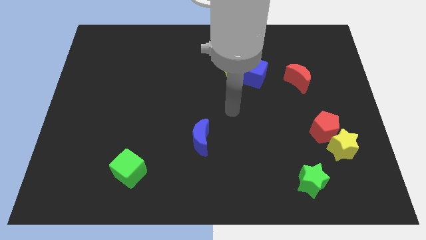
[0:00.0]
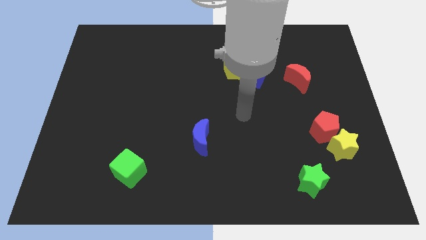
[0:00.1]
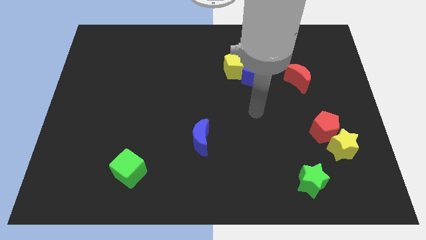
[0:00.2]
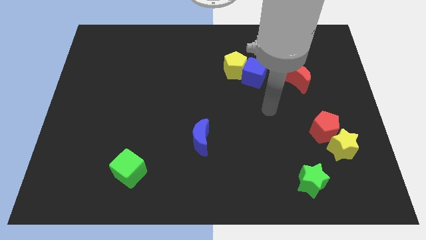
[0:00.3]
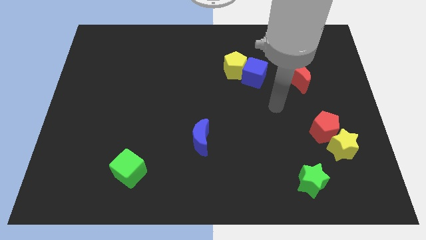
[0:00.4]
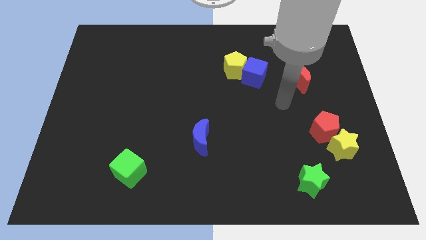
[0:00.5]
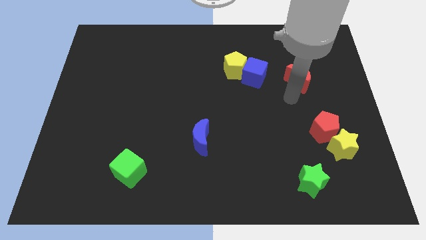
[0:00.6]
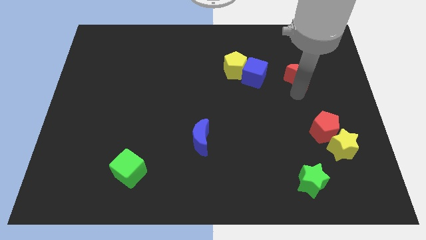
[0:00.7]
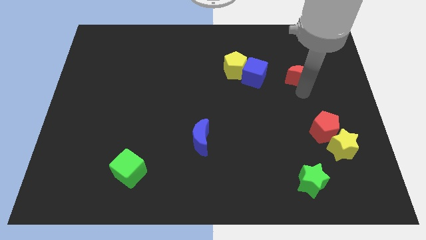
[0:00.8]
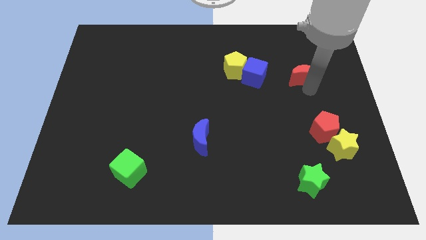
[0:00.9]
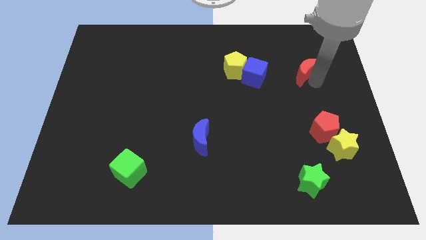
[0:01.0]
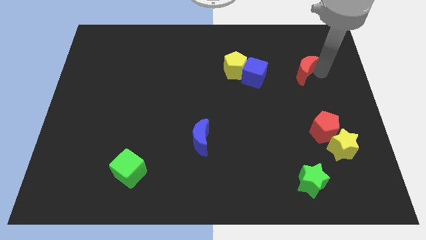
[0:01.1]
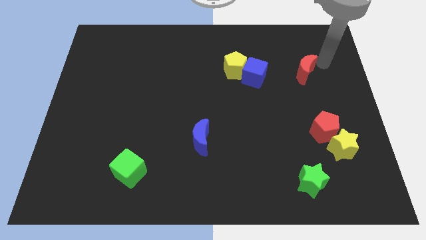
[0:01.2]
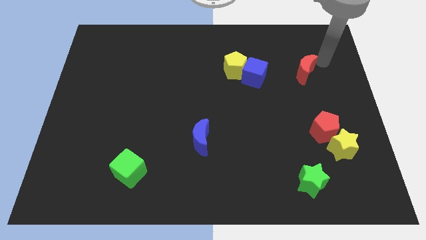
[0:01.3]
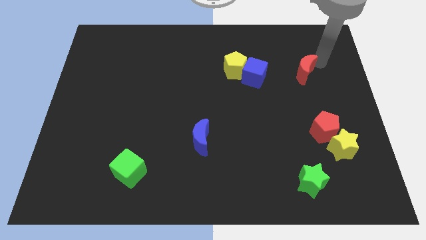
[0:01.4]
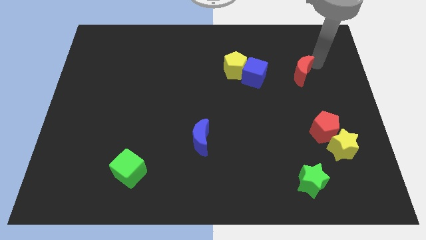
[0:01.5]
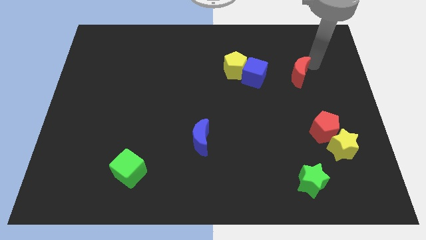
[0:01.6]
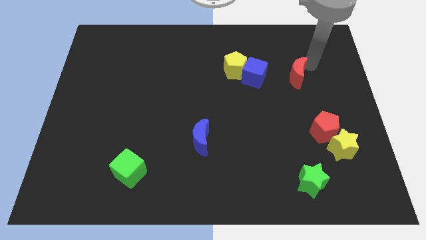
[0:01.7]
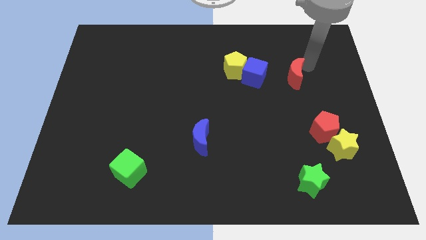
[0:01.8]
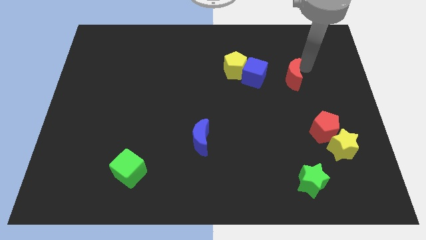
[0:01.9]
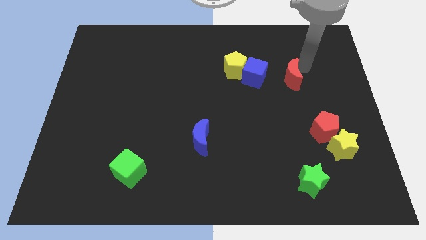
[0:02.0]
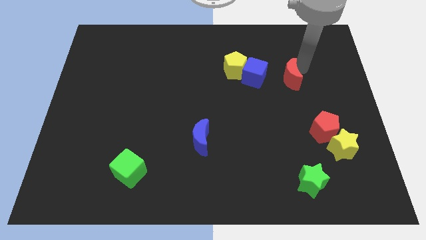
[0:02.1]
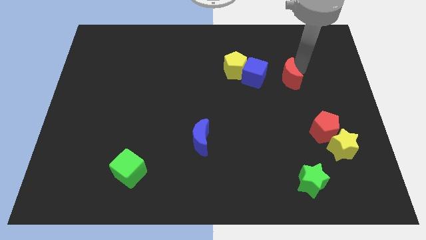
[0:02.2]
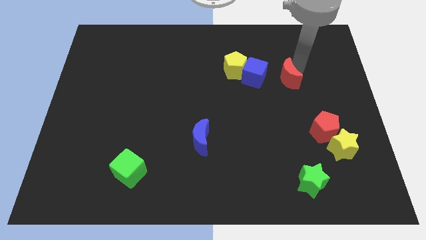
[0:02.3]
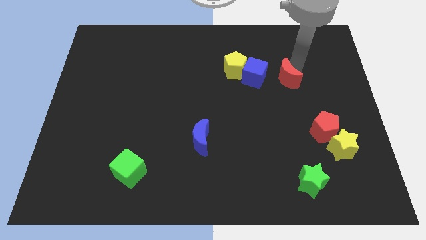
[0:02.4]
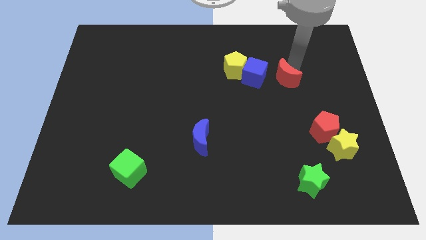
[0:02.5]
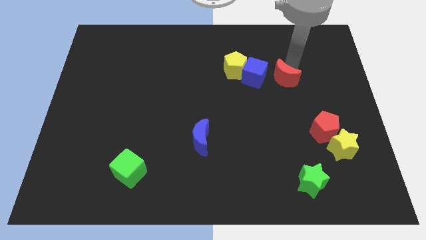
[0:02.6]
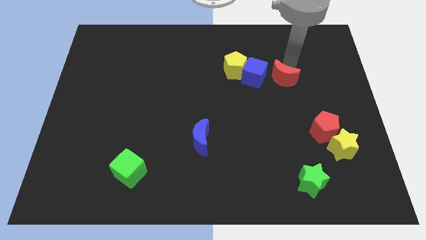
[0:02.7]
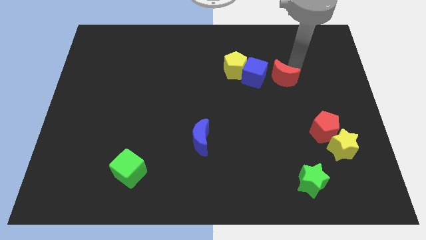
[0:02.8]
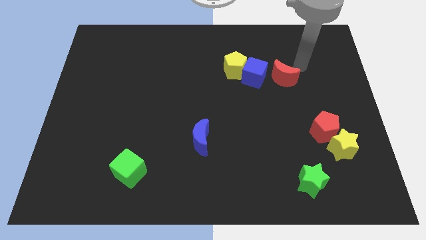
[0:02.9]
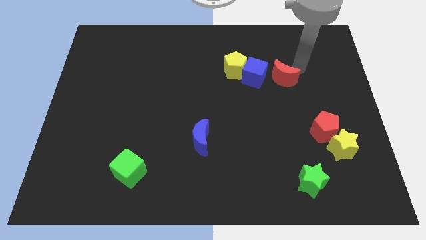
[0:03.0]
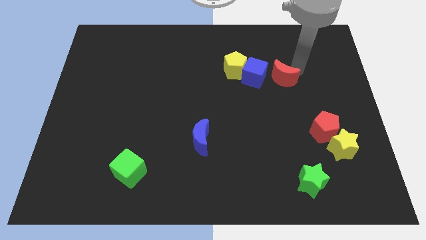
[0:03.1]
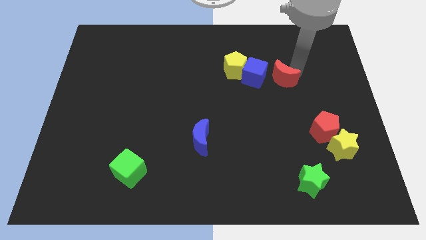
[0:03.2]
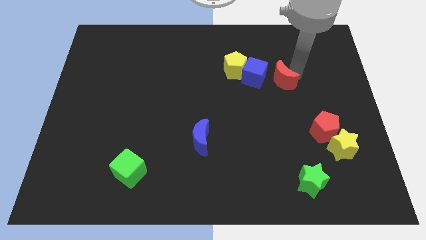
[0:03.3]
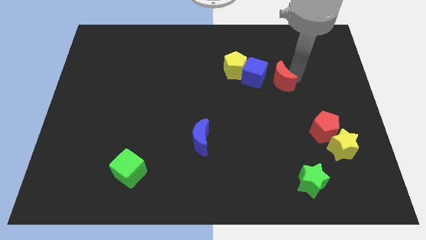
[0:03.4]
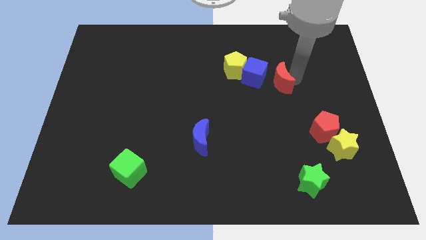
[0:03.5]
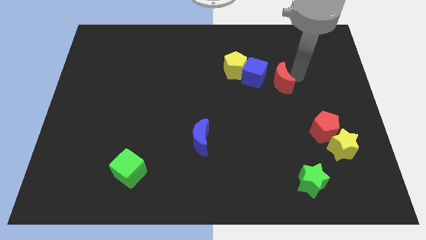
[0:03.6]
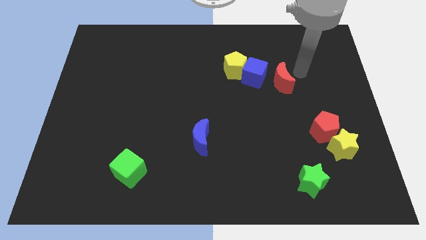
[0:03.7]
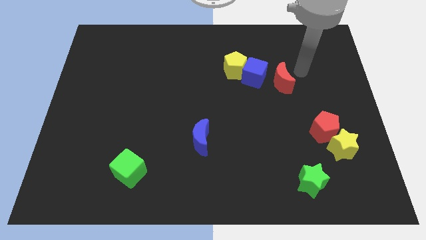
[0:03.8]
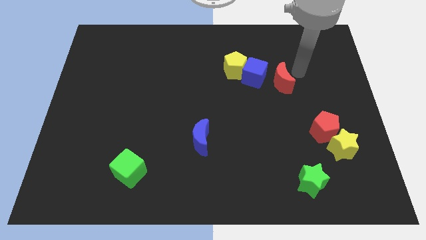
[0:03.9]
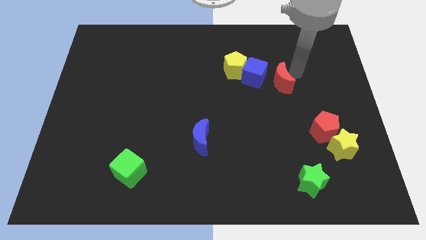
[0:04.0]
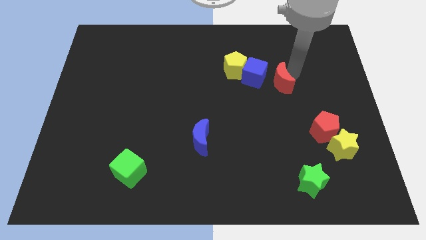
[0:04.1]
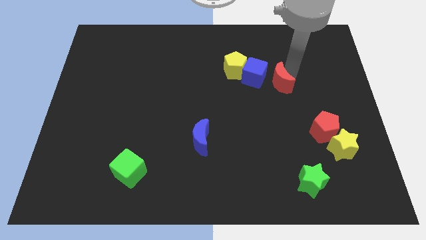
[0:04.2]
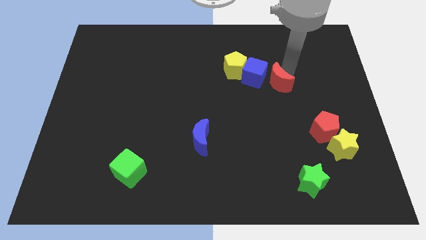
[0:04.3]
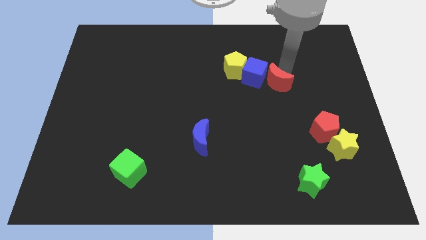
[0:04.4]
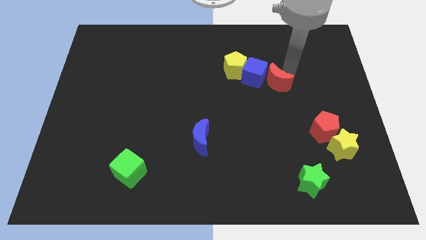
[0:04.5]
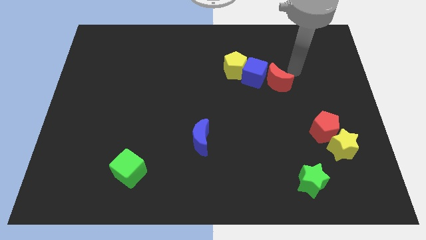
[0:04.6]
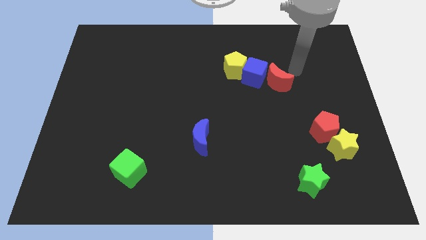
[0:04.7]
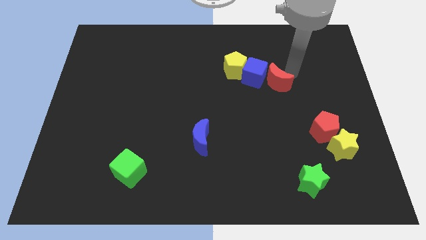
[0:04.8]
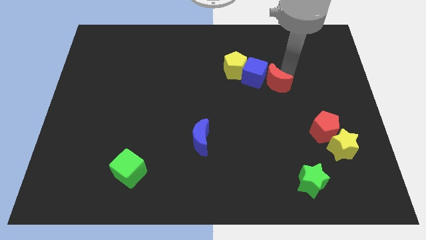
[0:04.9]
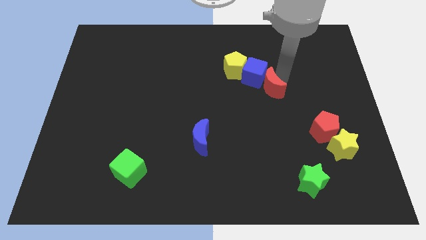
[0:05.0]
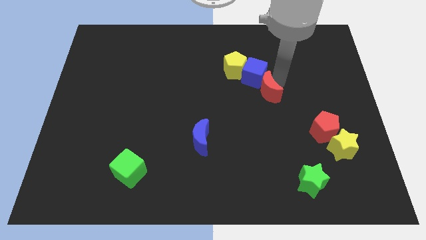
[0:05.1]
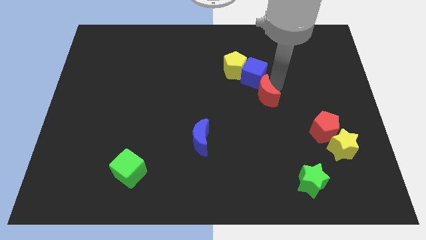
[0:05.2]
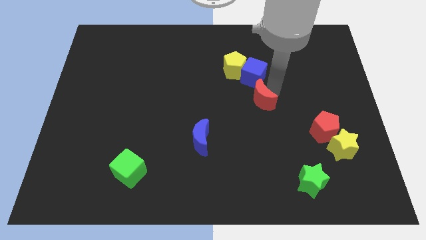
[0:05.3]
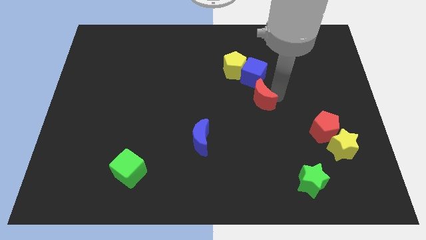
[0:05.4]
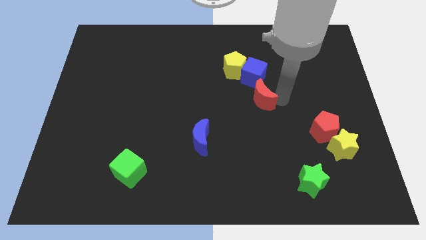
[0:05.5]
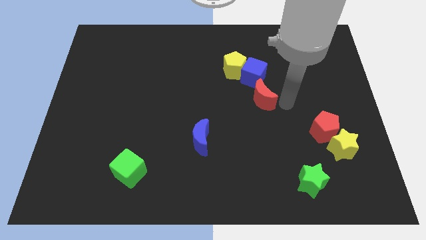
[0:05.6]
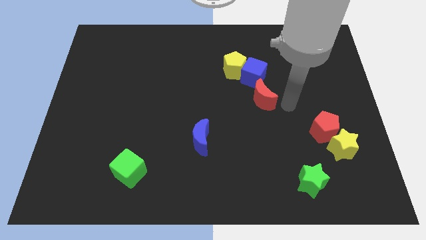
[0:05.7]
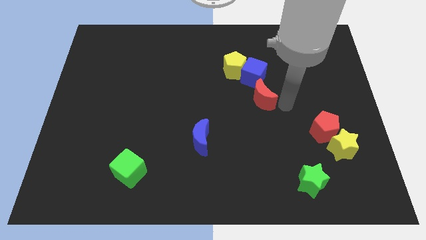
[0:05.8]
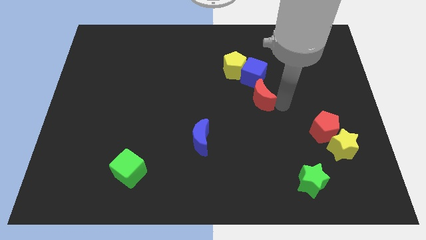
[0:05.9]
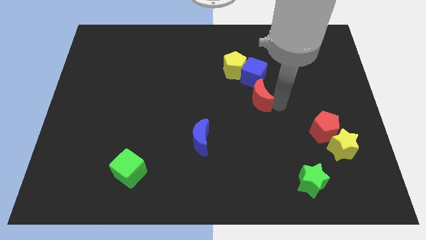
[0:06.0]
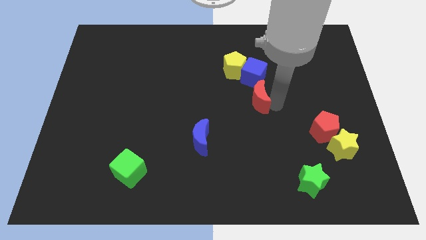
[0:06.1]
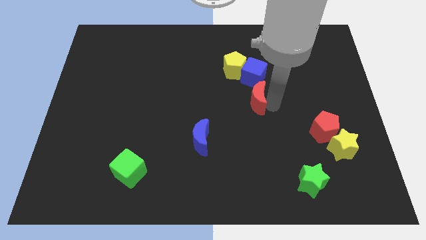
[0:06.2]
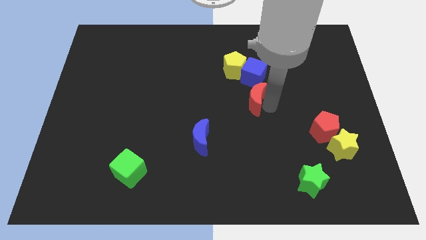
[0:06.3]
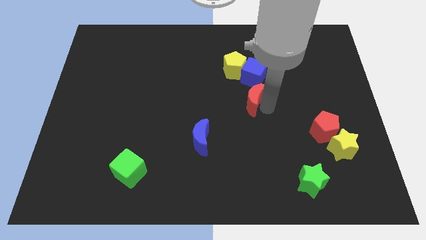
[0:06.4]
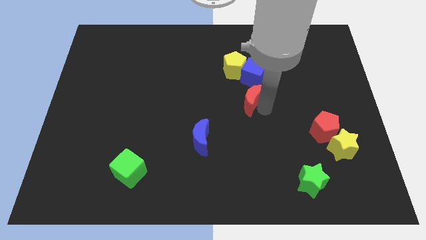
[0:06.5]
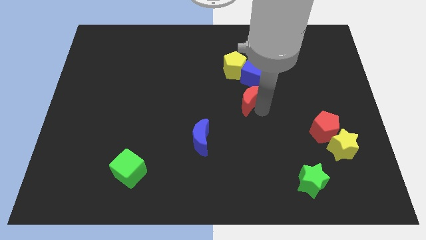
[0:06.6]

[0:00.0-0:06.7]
move the red moon to the bottom left of the blue cube
